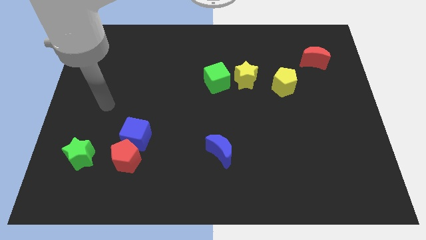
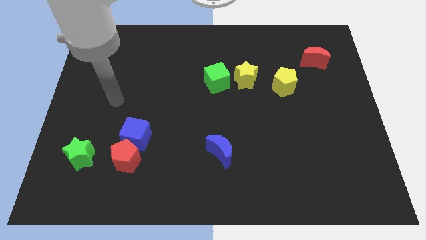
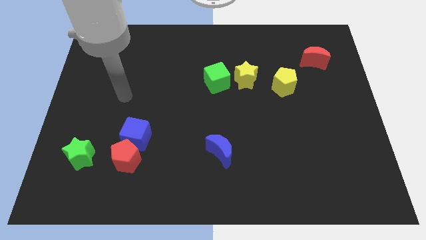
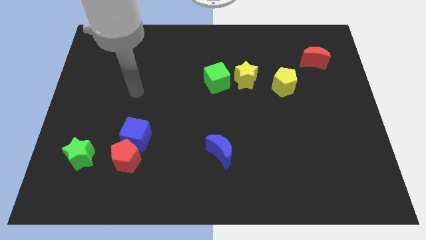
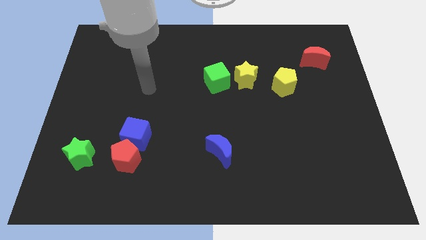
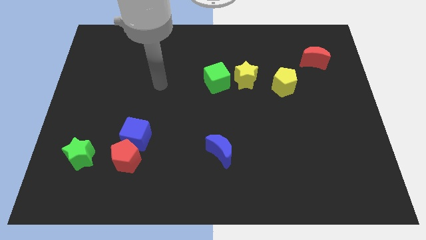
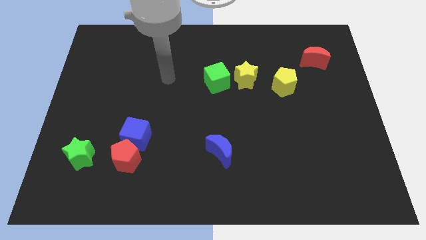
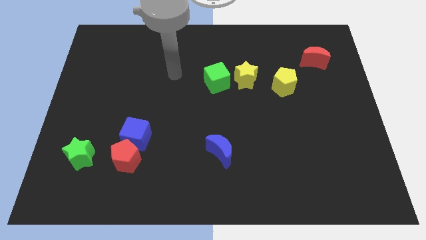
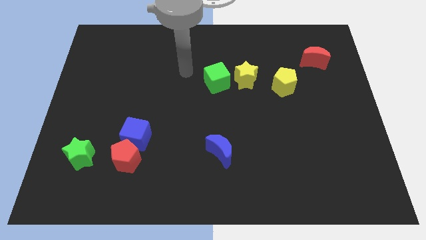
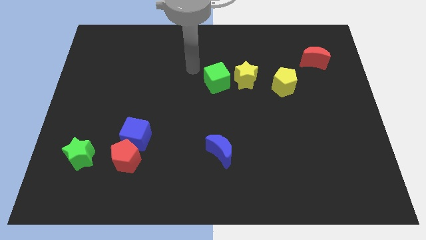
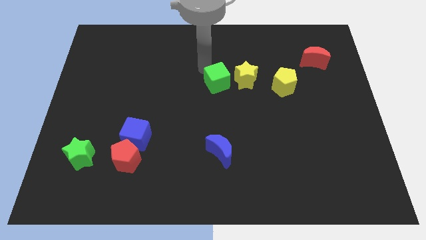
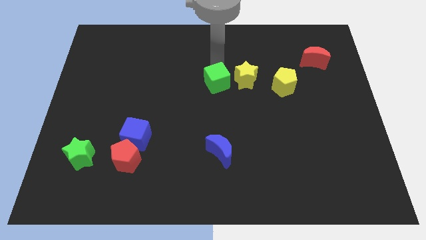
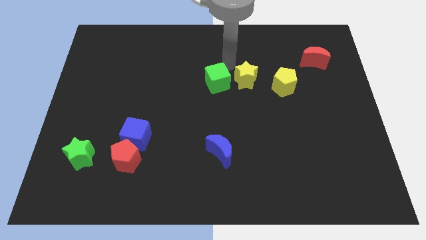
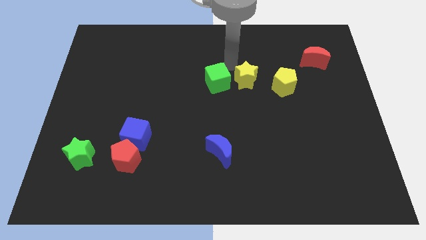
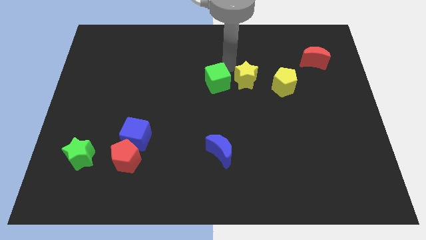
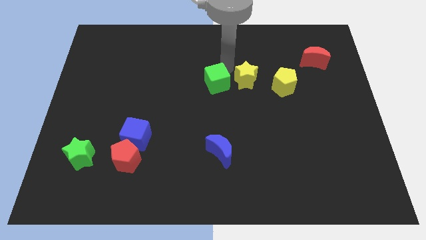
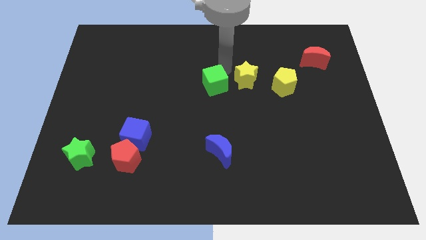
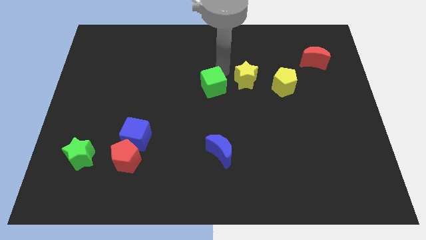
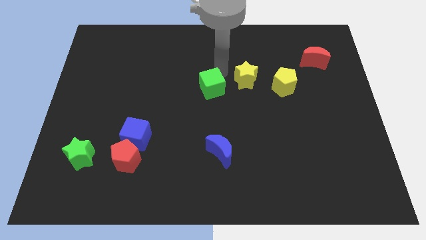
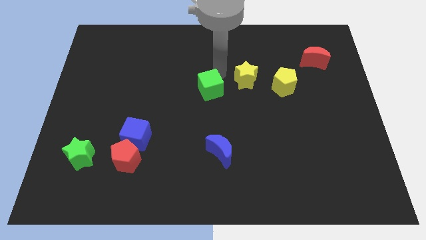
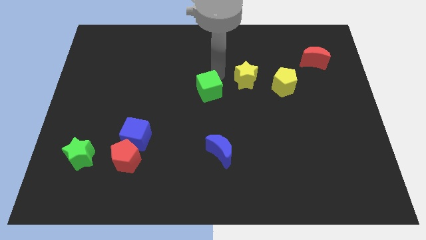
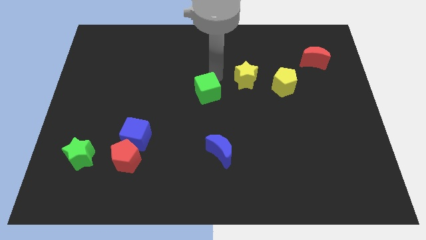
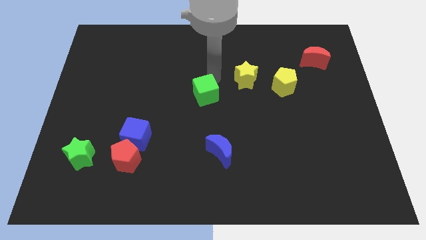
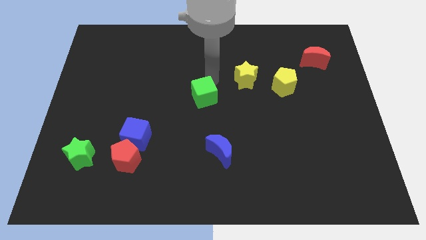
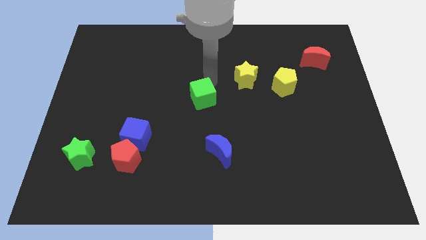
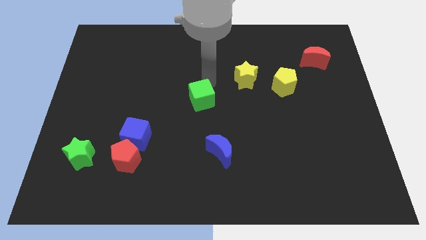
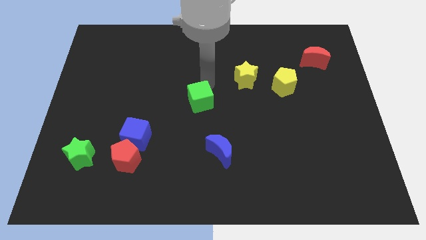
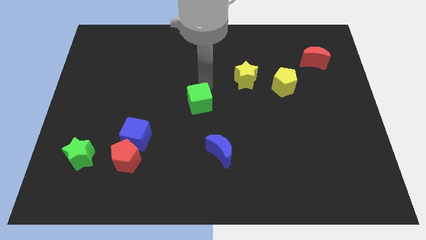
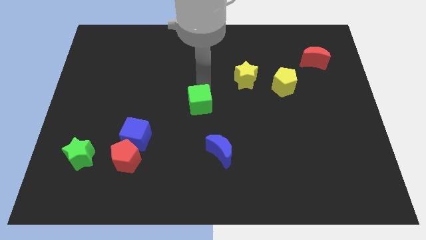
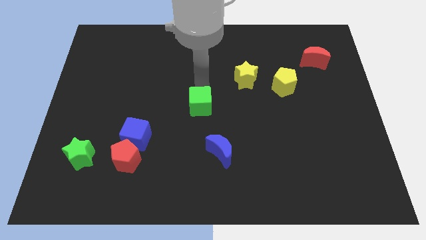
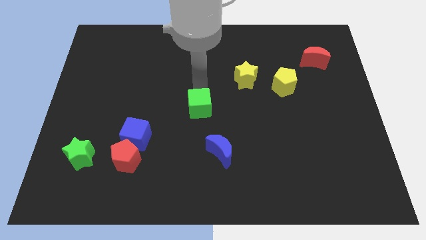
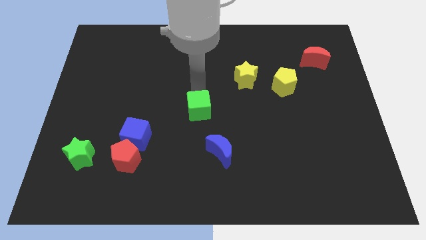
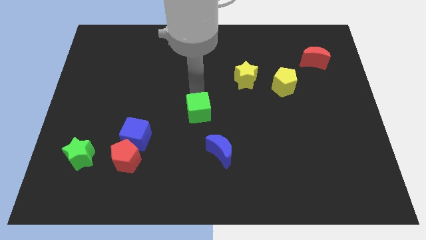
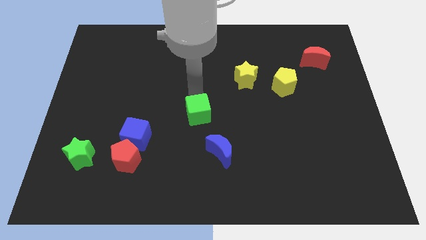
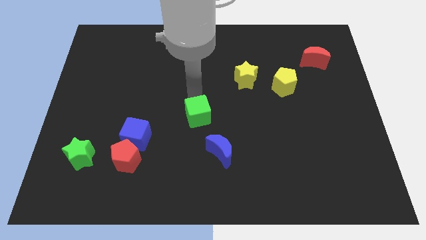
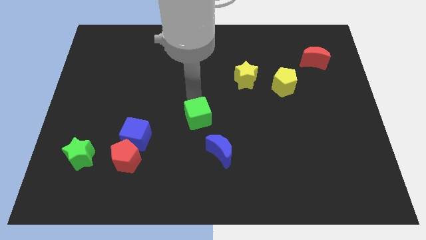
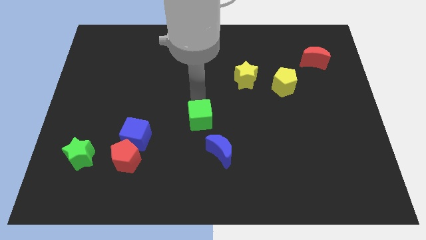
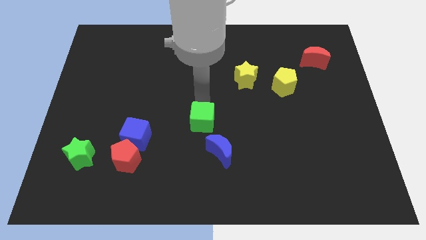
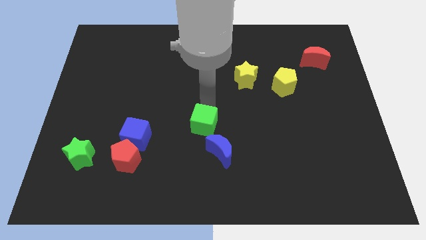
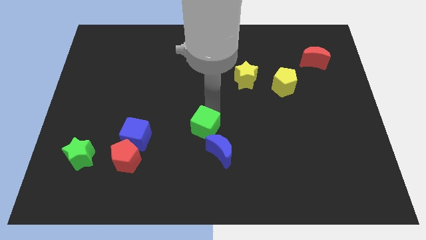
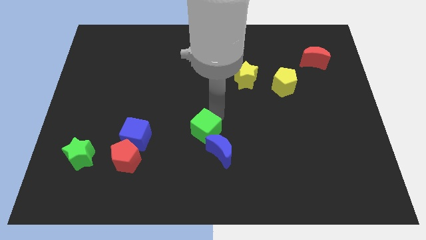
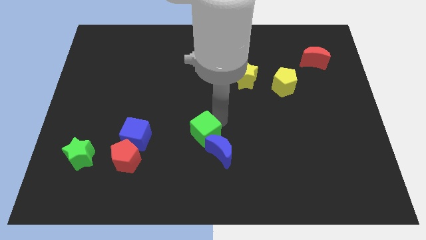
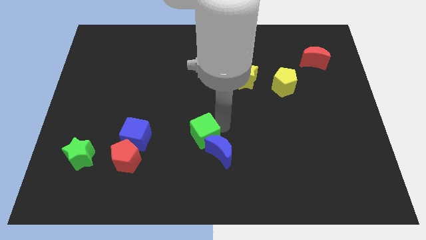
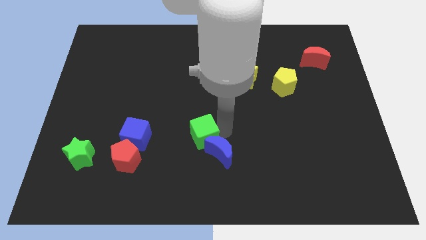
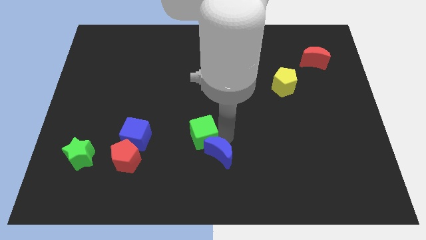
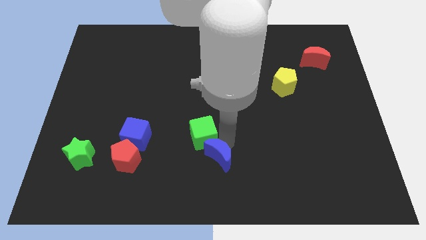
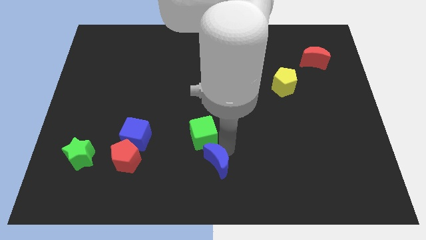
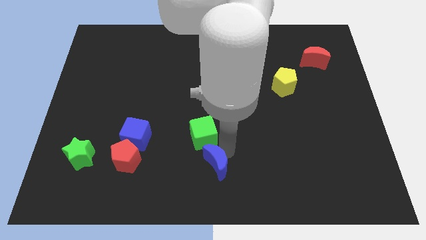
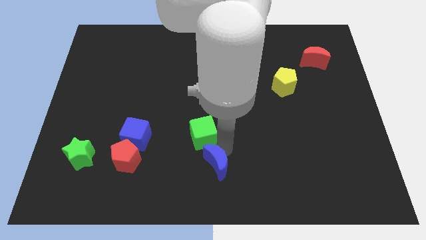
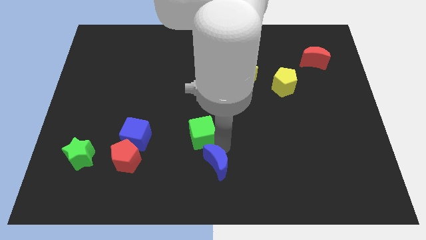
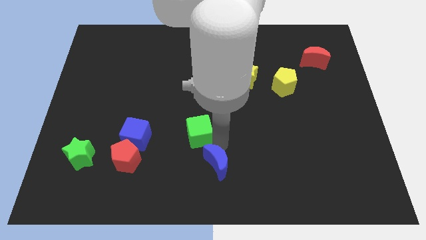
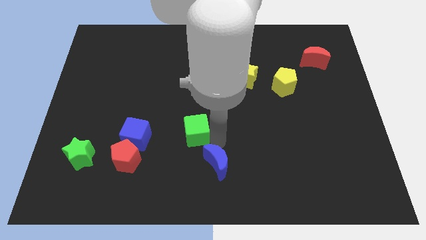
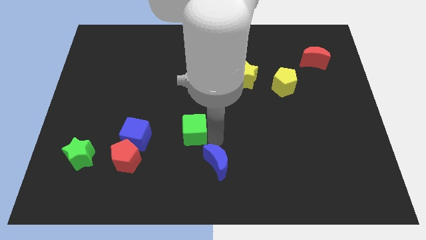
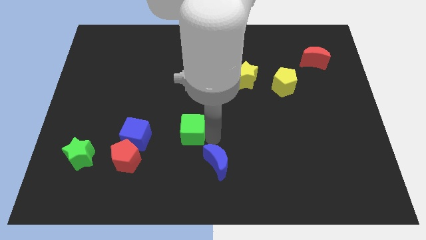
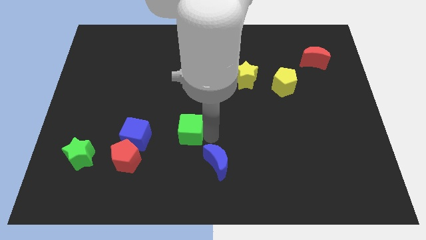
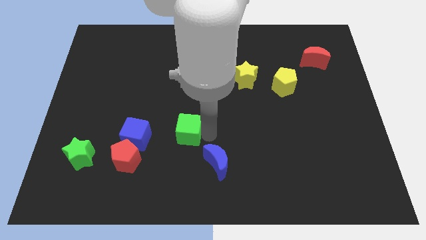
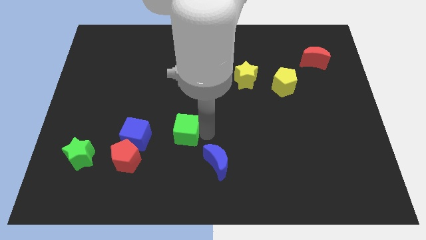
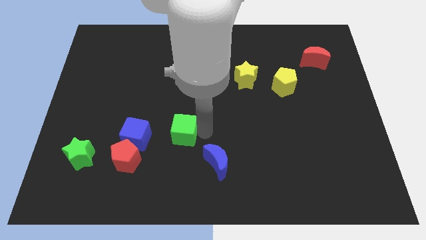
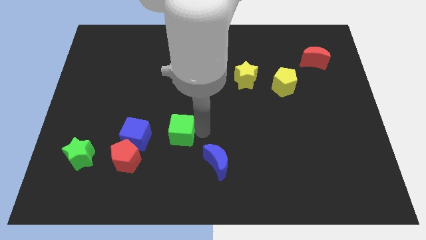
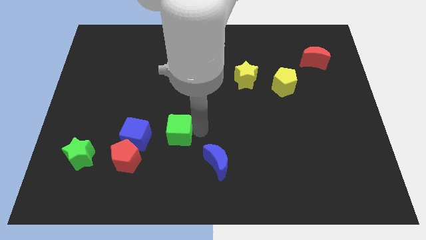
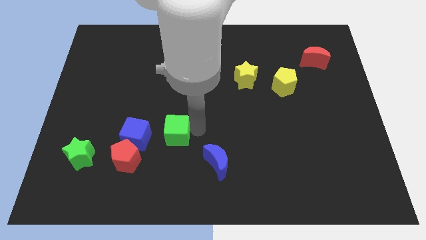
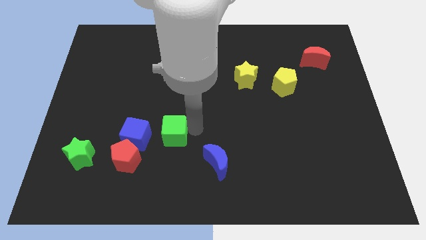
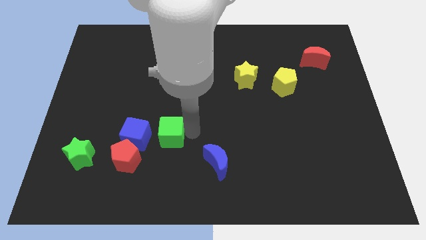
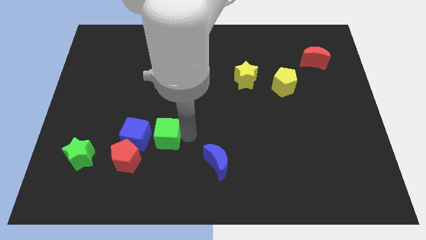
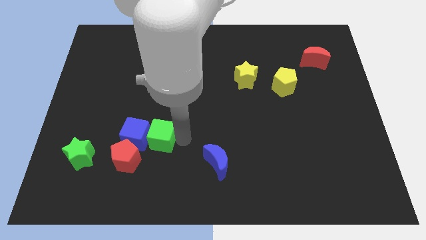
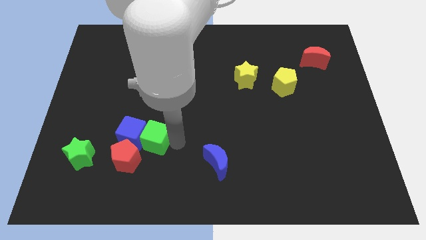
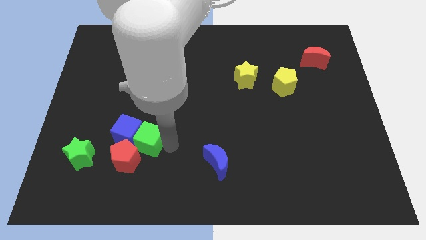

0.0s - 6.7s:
put the green cube close to the red pentagon

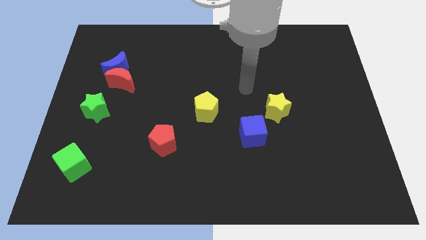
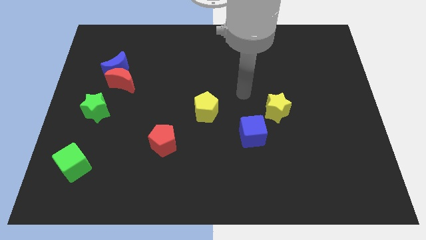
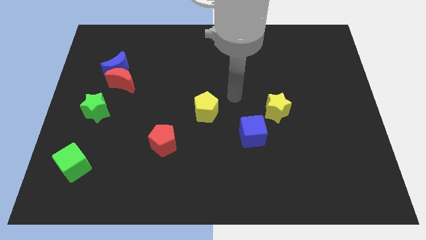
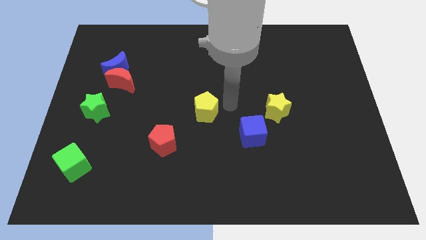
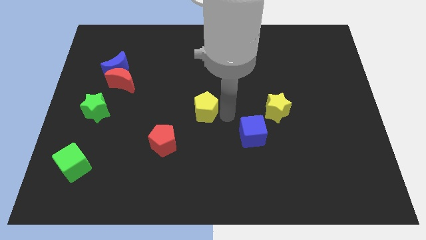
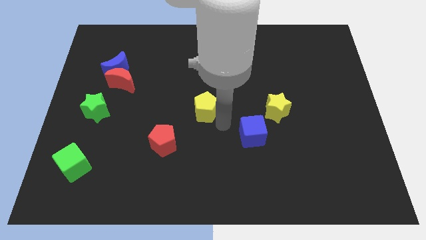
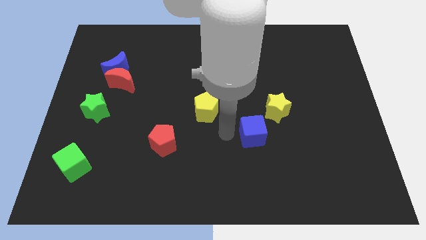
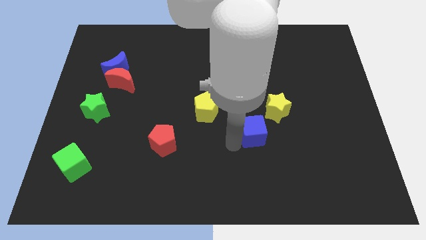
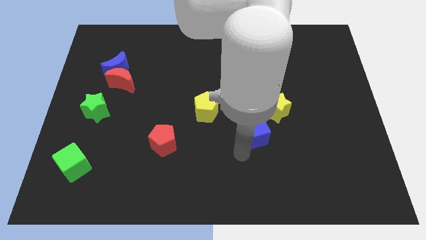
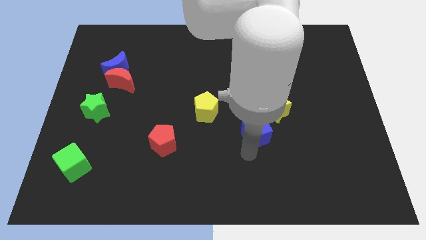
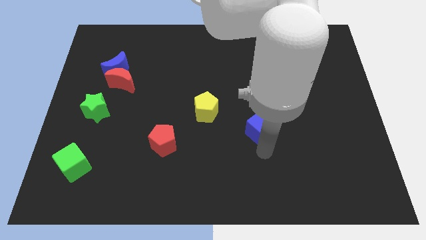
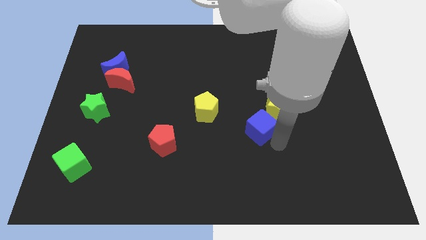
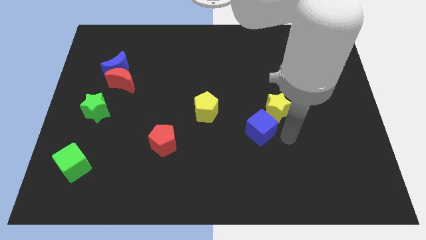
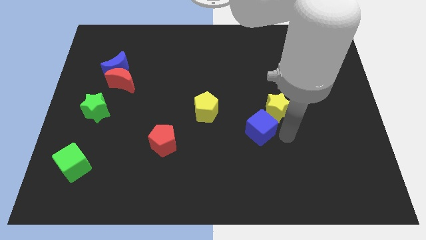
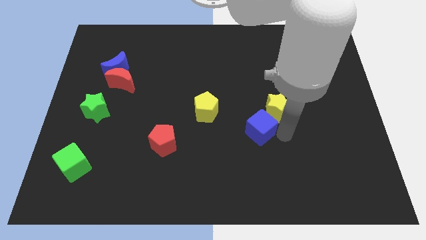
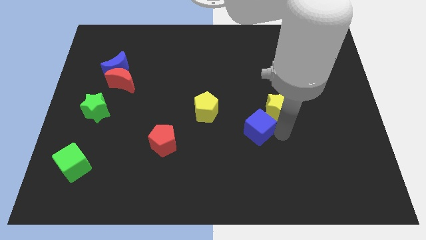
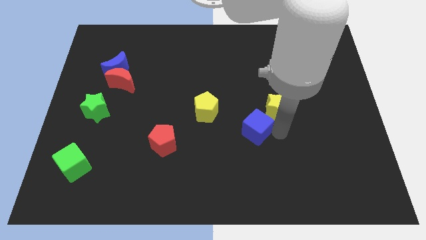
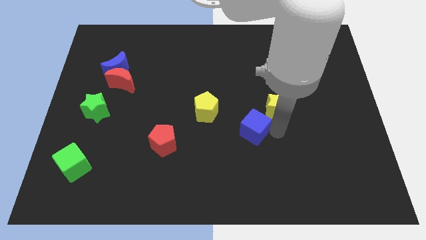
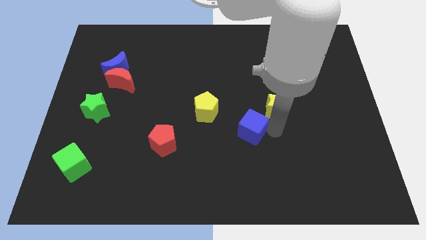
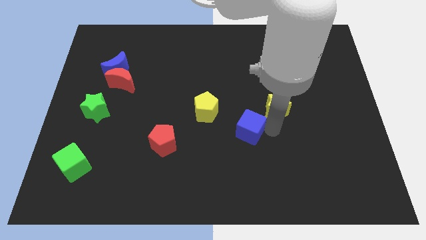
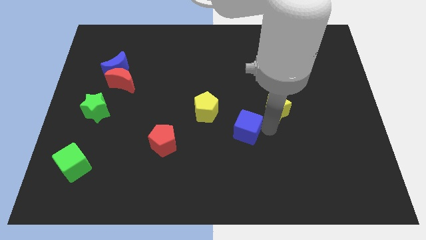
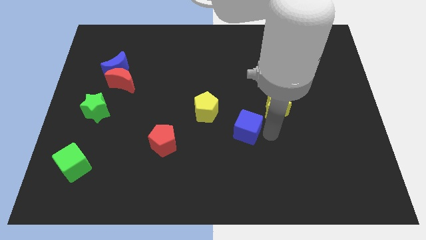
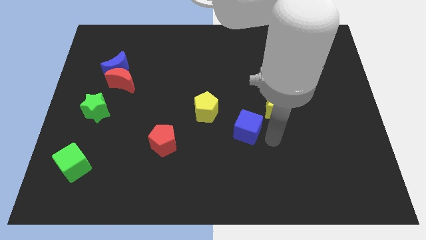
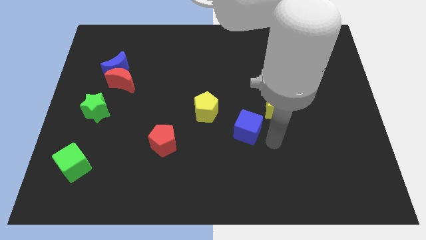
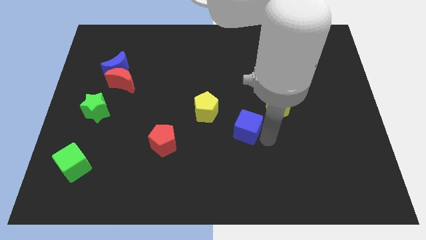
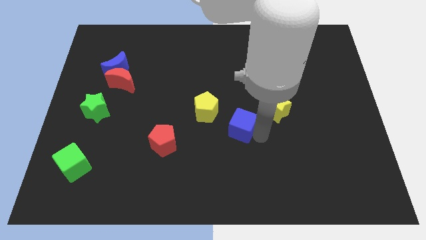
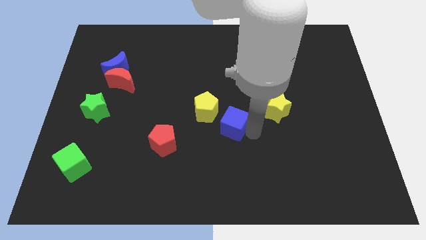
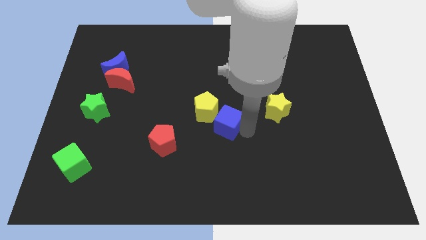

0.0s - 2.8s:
put the blue cube close to the yellow pentagon
